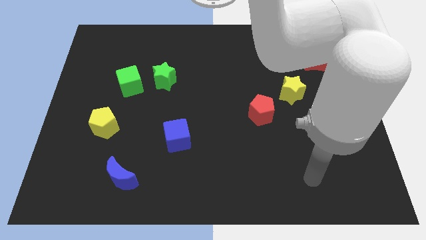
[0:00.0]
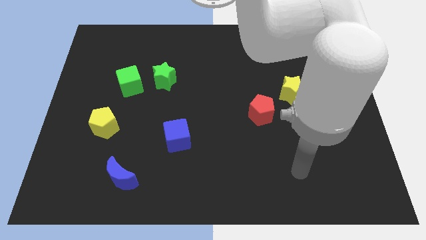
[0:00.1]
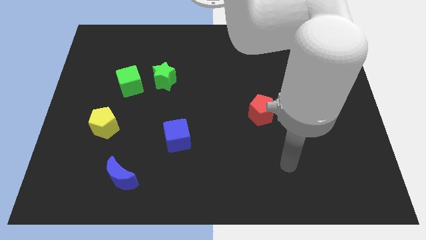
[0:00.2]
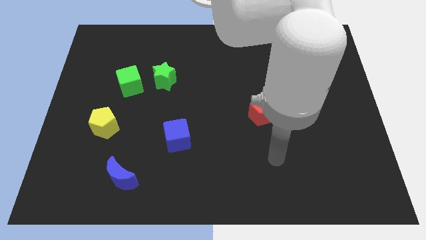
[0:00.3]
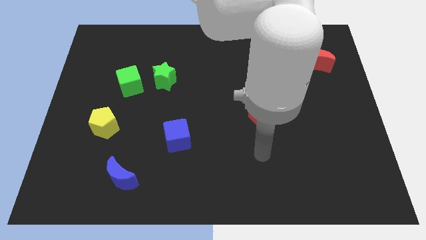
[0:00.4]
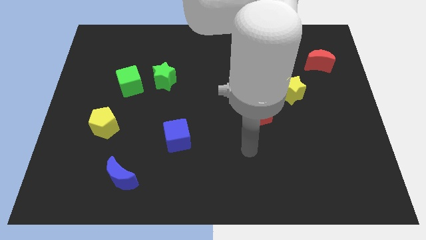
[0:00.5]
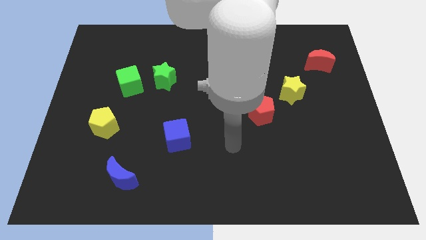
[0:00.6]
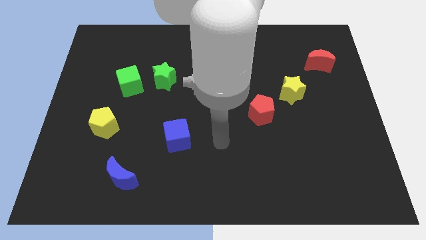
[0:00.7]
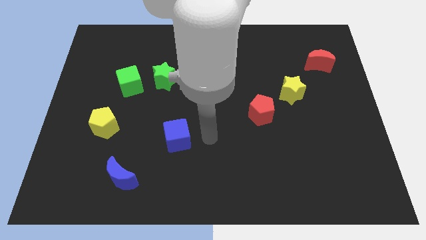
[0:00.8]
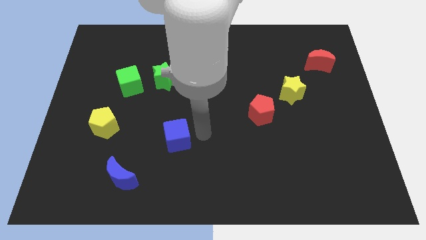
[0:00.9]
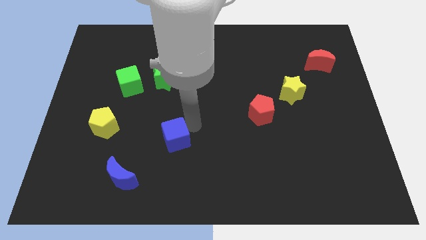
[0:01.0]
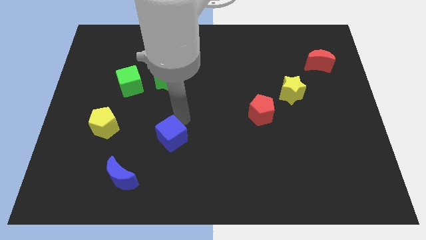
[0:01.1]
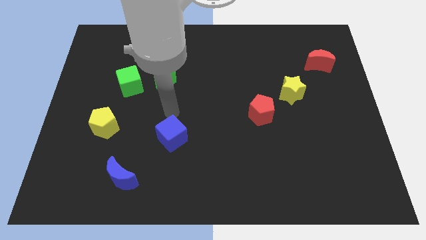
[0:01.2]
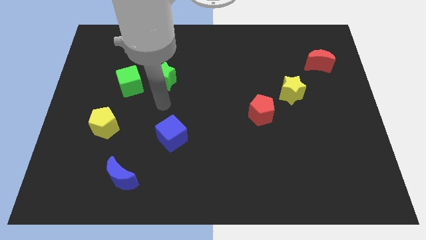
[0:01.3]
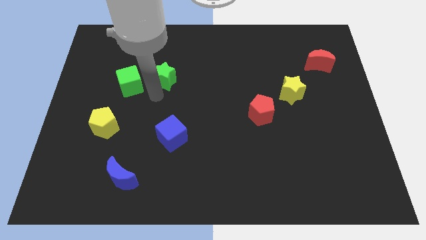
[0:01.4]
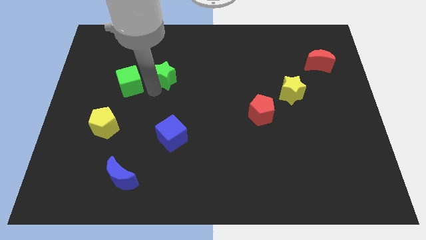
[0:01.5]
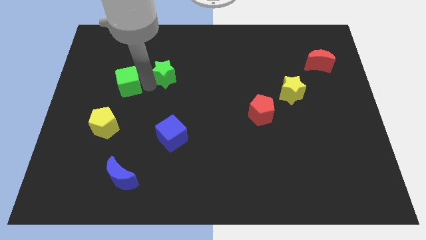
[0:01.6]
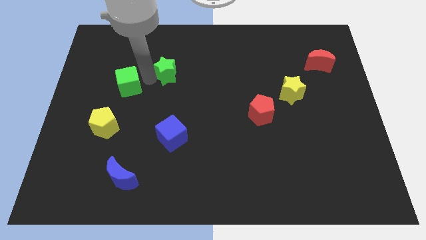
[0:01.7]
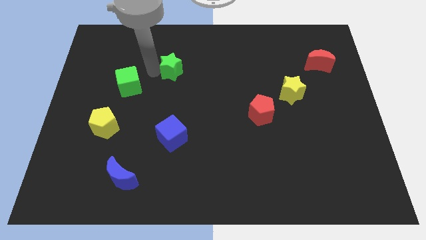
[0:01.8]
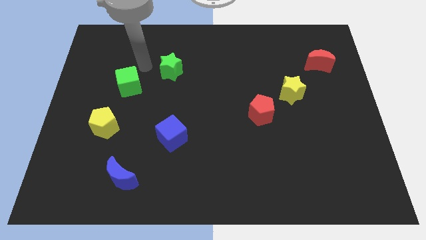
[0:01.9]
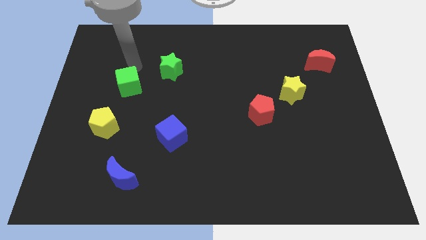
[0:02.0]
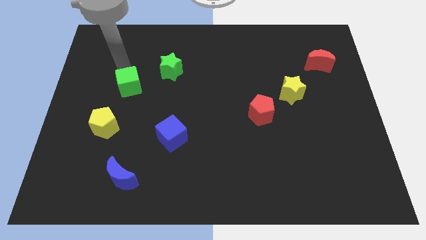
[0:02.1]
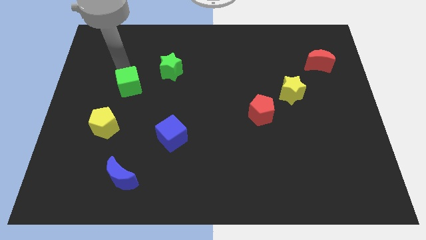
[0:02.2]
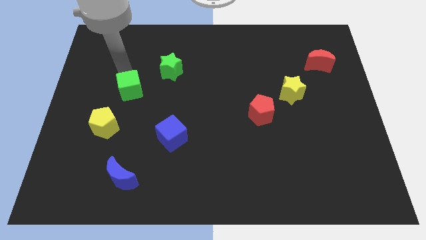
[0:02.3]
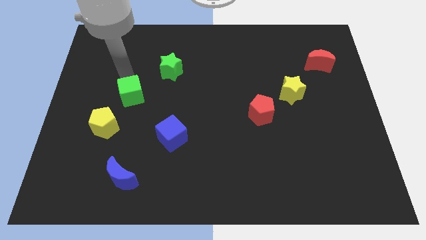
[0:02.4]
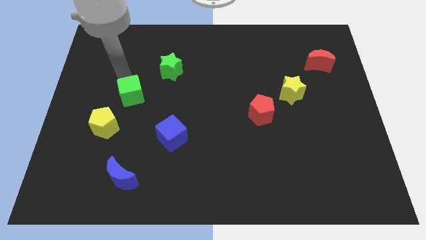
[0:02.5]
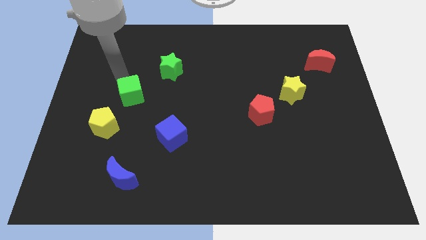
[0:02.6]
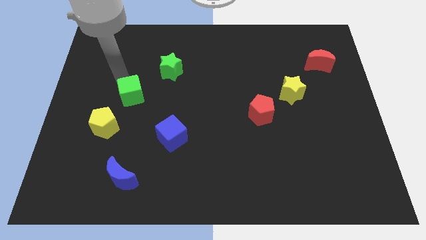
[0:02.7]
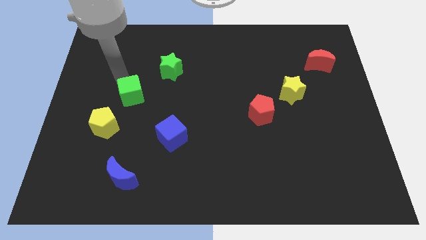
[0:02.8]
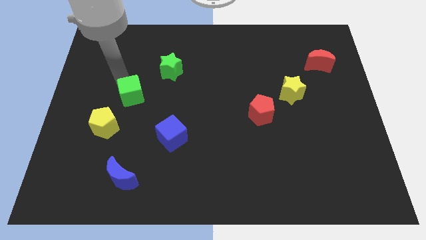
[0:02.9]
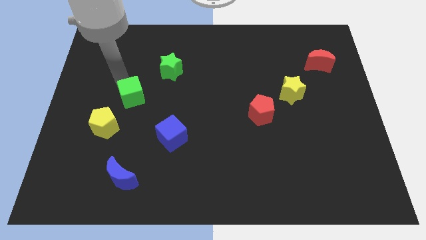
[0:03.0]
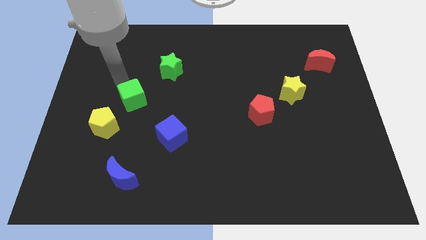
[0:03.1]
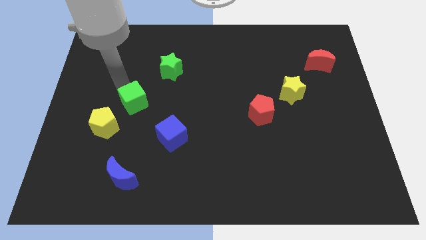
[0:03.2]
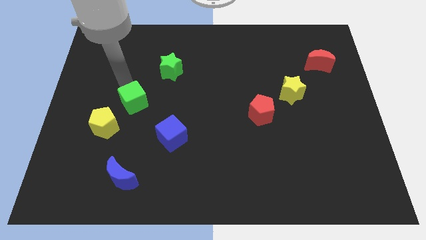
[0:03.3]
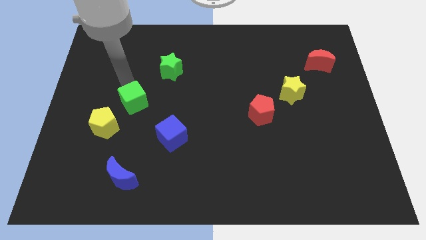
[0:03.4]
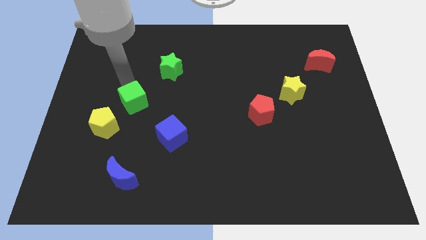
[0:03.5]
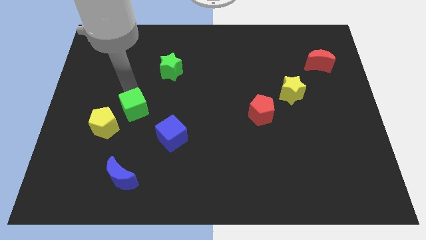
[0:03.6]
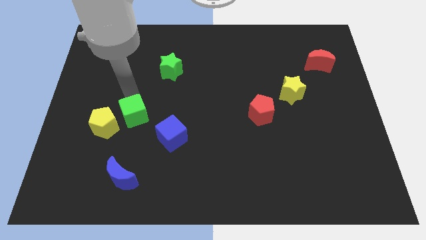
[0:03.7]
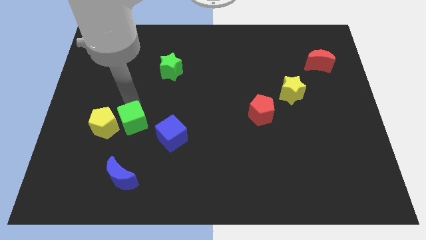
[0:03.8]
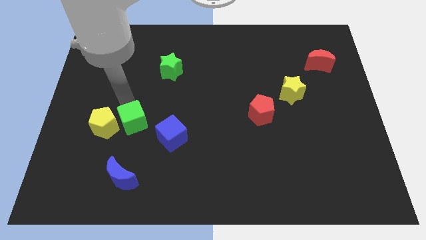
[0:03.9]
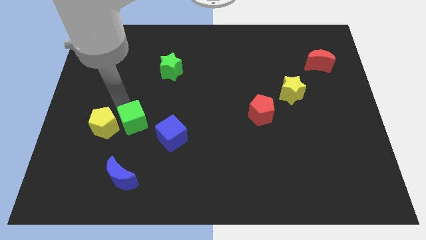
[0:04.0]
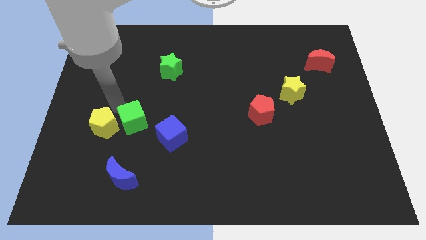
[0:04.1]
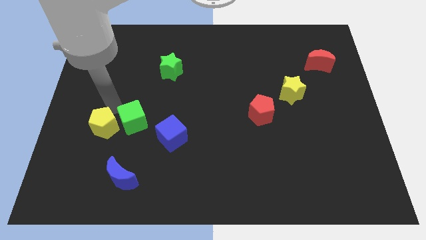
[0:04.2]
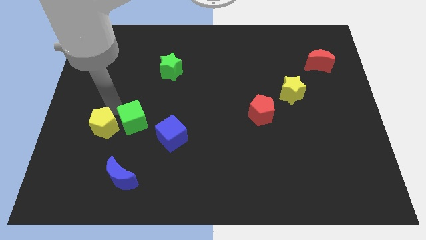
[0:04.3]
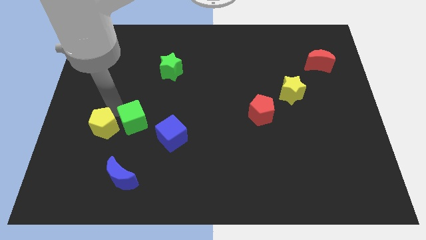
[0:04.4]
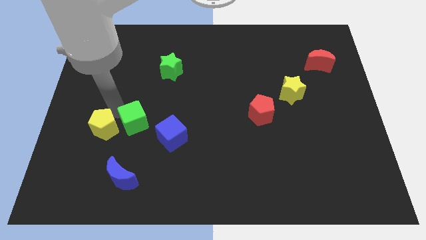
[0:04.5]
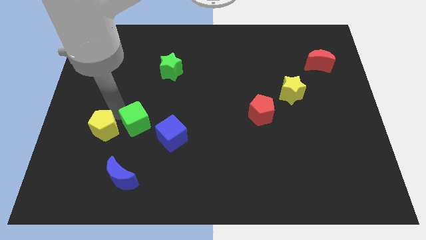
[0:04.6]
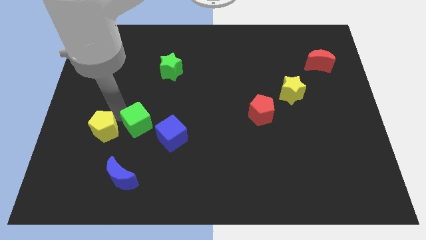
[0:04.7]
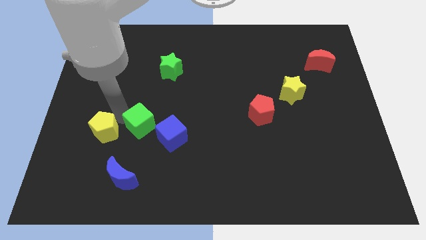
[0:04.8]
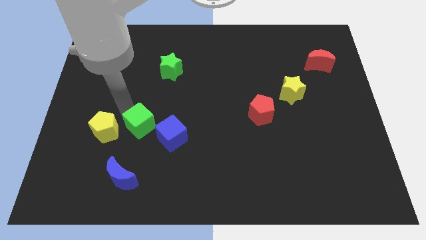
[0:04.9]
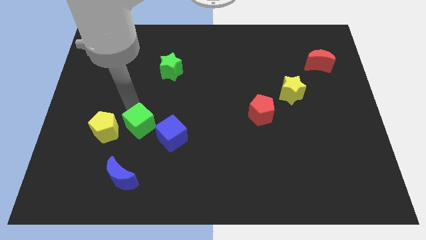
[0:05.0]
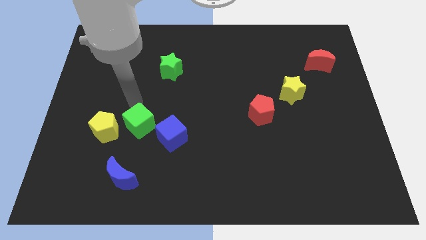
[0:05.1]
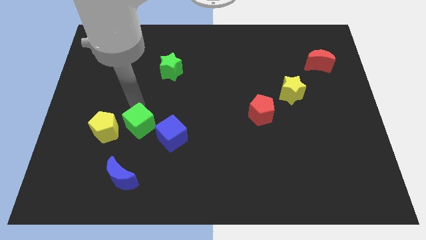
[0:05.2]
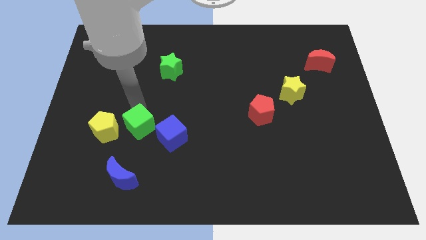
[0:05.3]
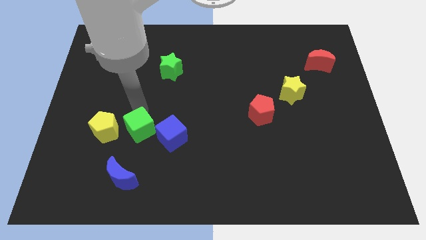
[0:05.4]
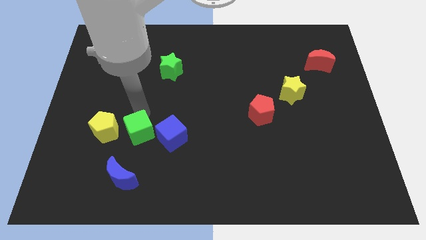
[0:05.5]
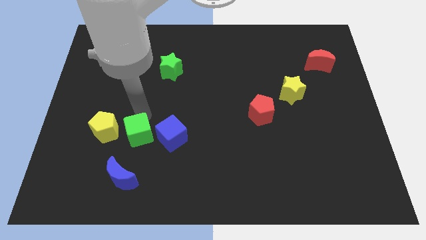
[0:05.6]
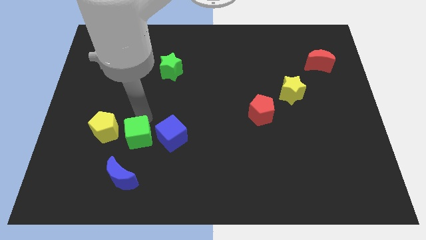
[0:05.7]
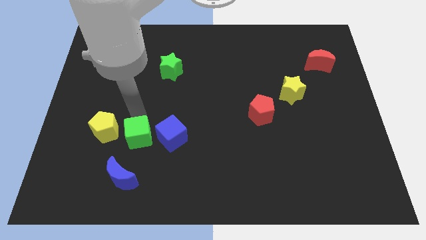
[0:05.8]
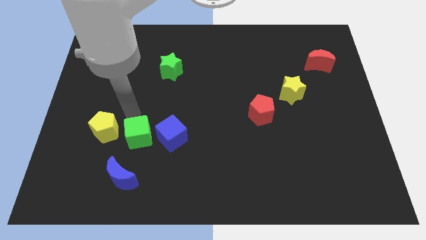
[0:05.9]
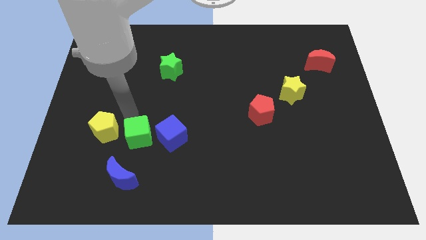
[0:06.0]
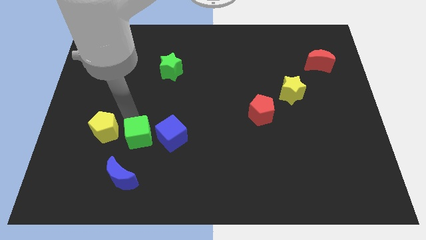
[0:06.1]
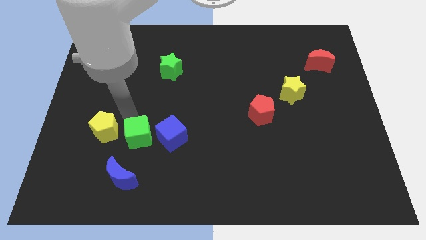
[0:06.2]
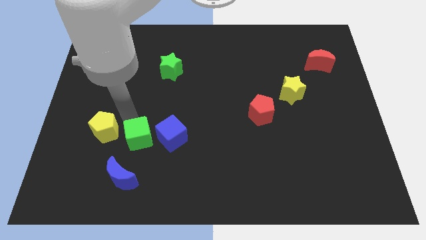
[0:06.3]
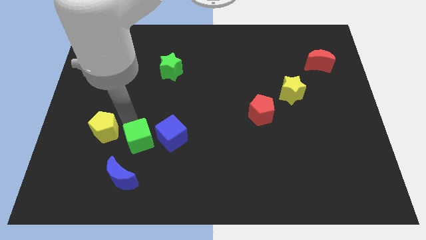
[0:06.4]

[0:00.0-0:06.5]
put the green cube diagonally up and to the right of the blue moon

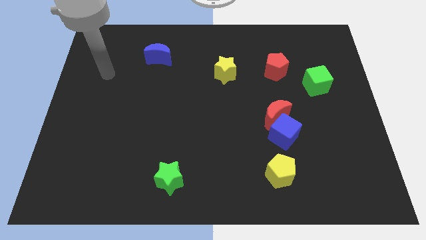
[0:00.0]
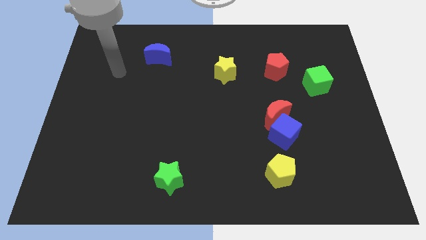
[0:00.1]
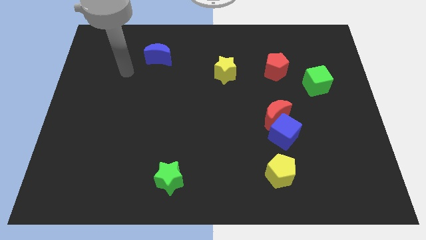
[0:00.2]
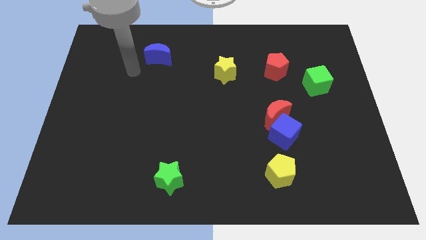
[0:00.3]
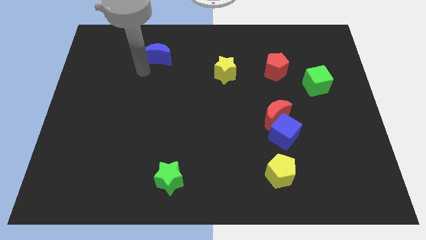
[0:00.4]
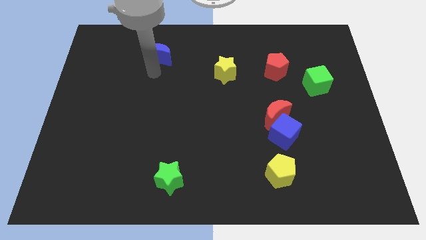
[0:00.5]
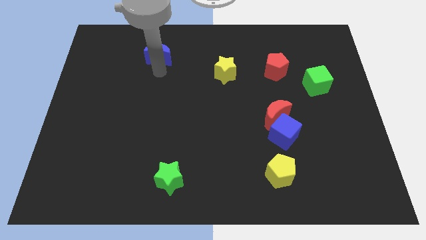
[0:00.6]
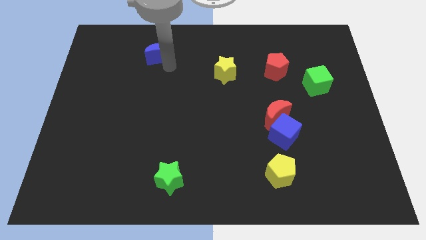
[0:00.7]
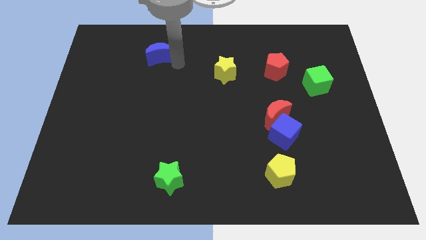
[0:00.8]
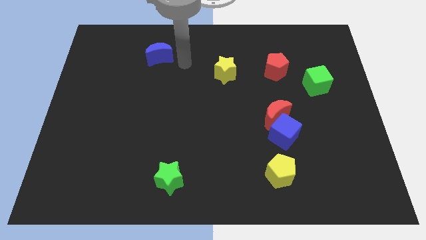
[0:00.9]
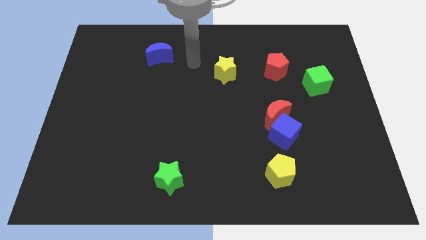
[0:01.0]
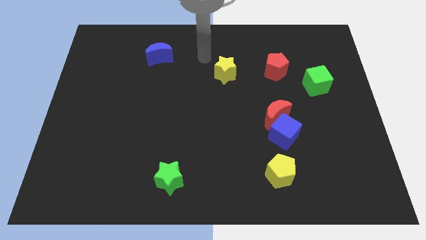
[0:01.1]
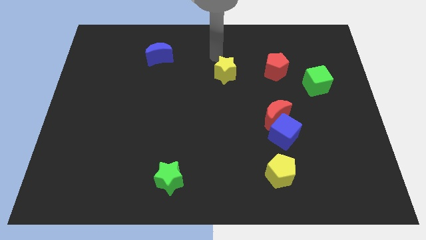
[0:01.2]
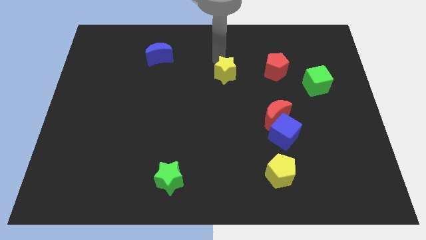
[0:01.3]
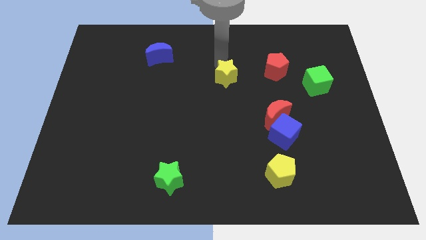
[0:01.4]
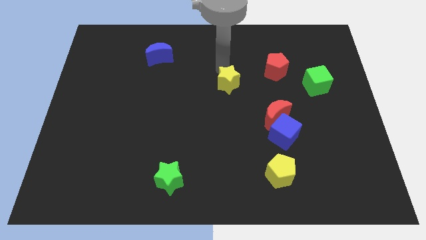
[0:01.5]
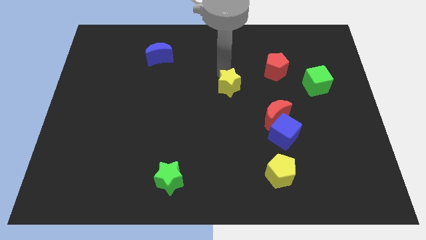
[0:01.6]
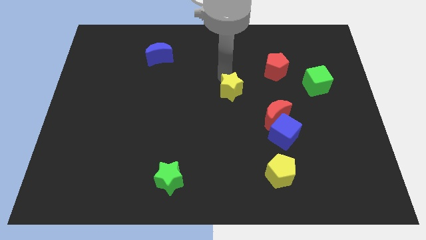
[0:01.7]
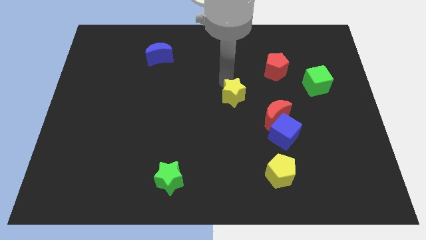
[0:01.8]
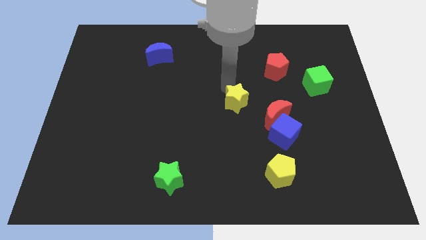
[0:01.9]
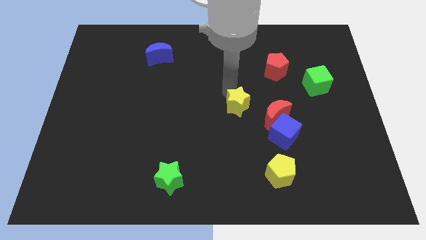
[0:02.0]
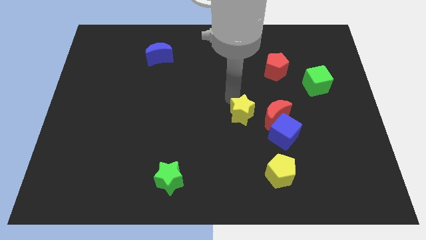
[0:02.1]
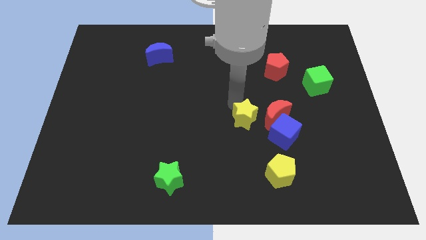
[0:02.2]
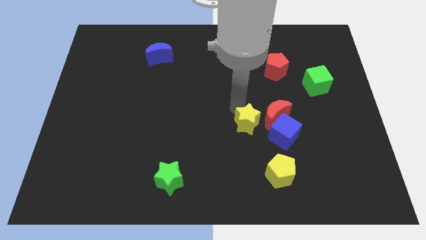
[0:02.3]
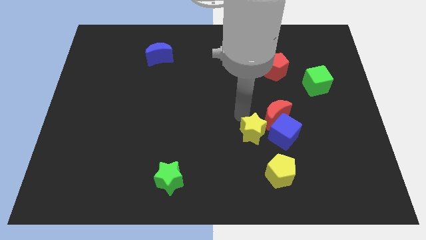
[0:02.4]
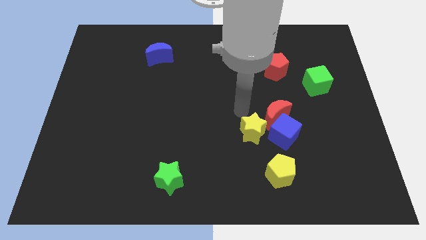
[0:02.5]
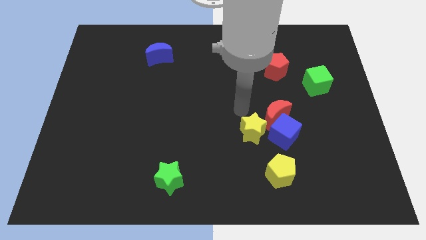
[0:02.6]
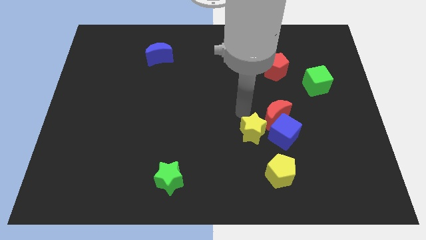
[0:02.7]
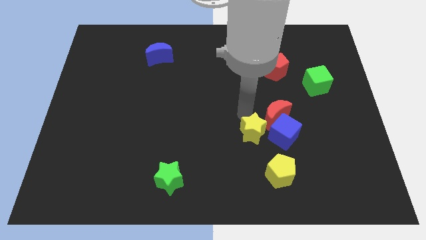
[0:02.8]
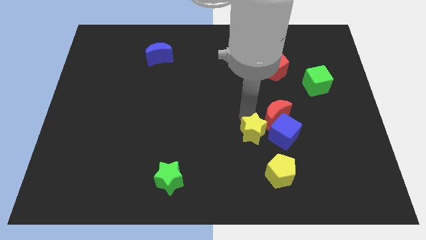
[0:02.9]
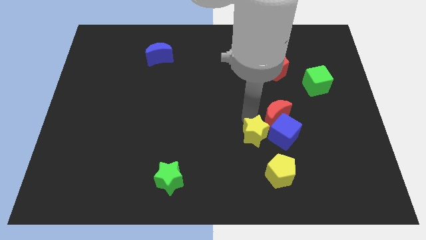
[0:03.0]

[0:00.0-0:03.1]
put the yellow star to the bottom left of the blue cube
